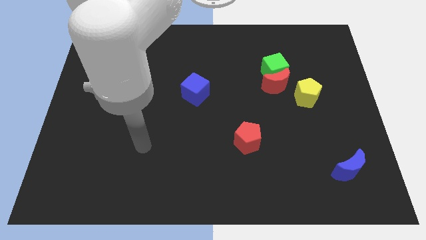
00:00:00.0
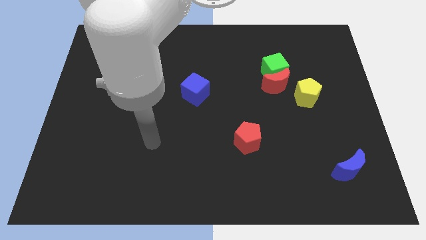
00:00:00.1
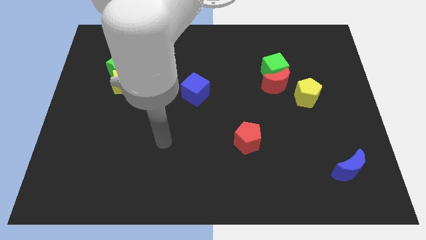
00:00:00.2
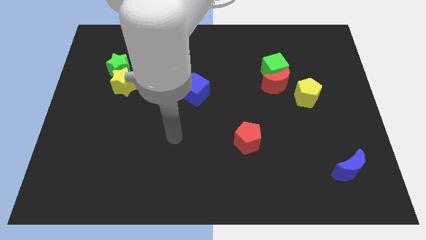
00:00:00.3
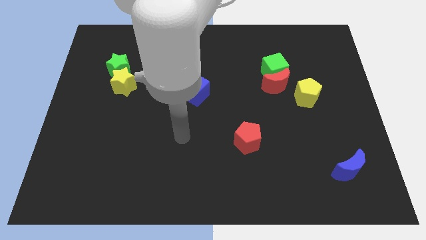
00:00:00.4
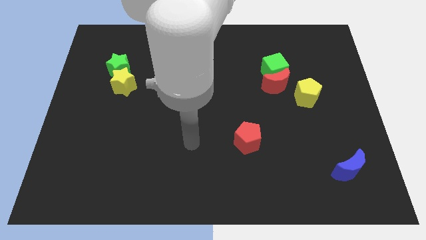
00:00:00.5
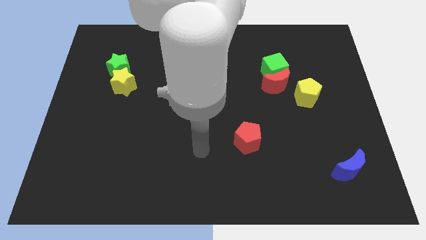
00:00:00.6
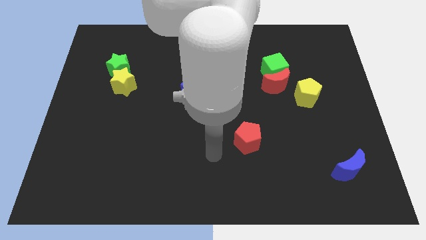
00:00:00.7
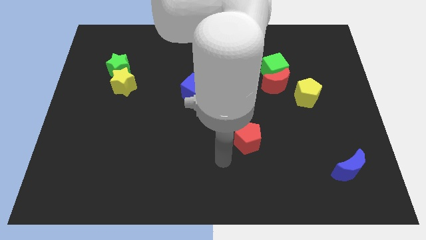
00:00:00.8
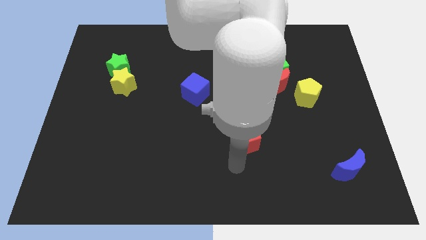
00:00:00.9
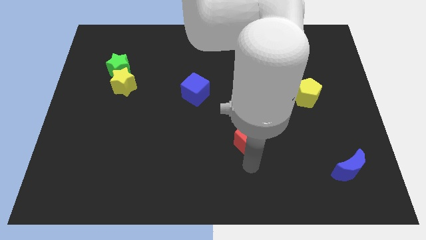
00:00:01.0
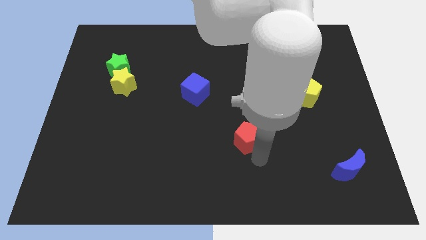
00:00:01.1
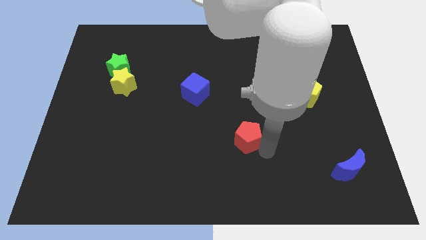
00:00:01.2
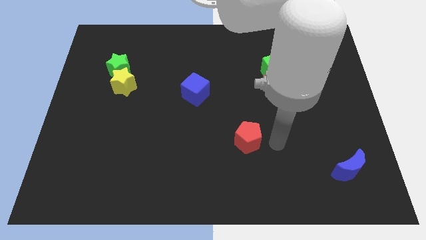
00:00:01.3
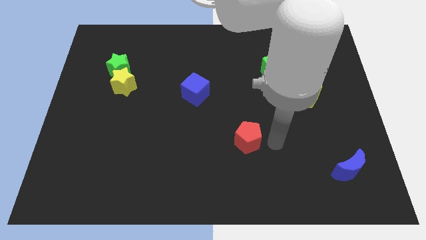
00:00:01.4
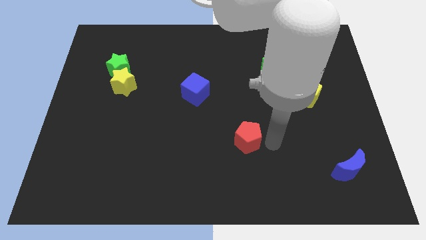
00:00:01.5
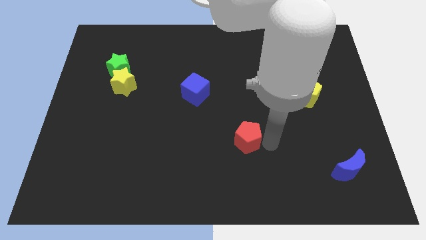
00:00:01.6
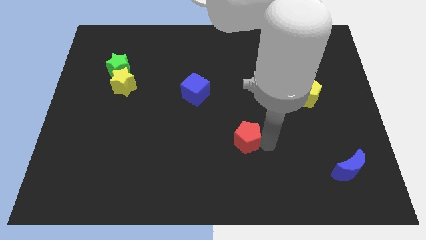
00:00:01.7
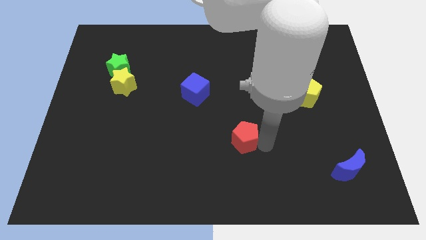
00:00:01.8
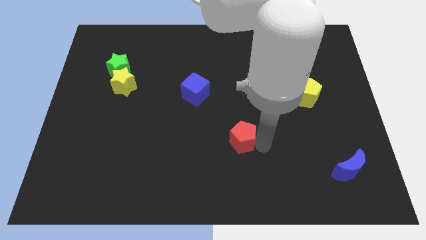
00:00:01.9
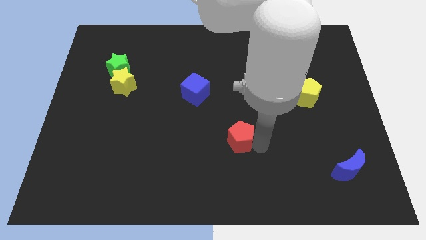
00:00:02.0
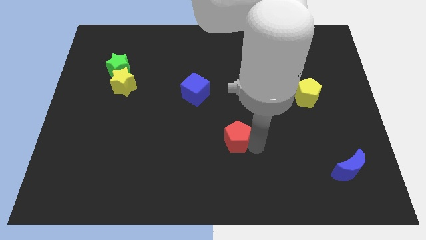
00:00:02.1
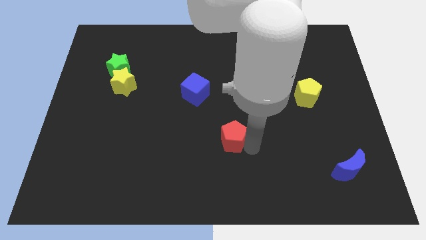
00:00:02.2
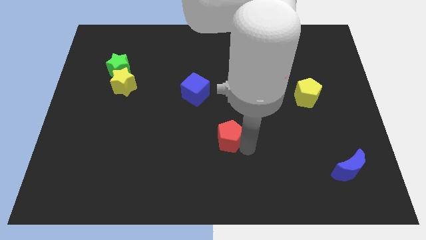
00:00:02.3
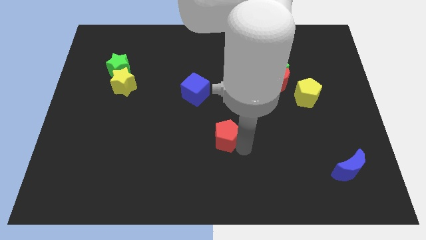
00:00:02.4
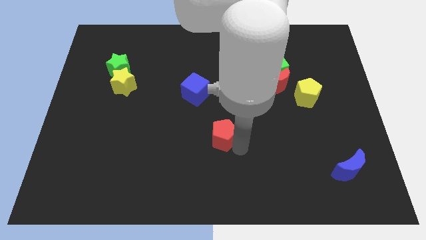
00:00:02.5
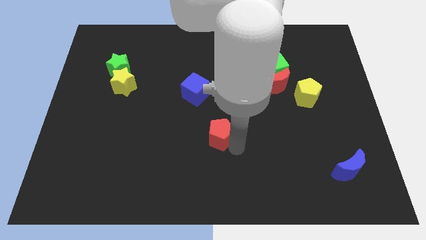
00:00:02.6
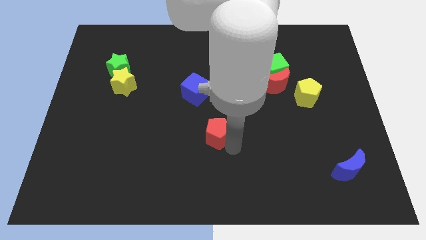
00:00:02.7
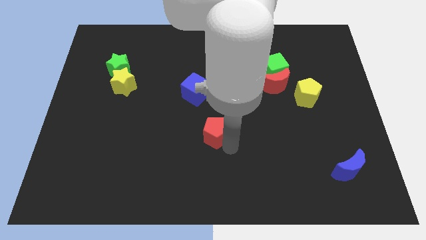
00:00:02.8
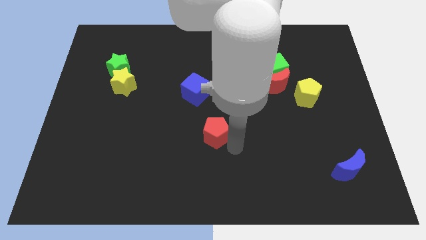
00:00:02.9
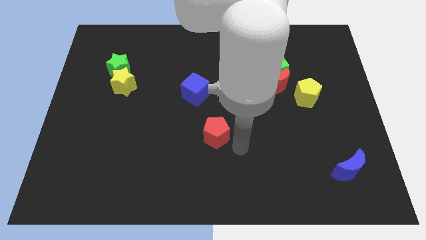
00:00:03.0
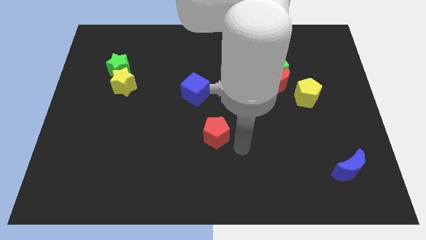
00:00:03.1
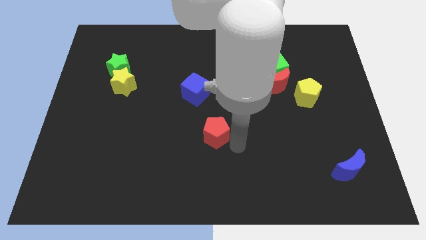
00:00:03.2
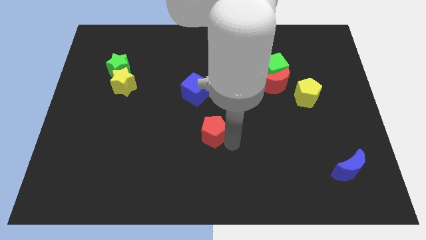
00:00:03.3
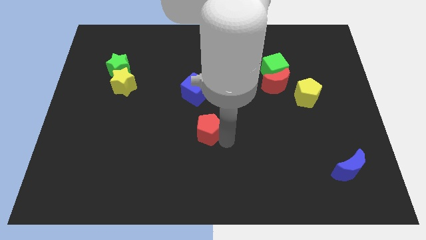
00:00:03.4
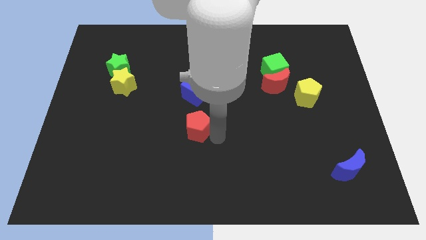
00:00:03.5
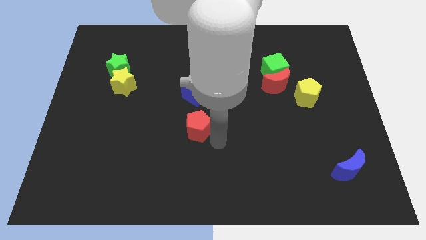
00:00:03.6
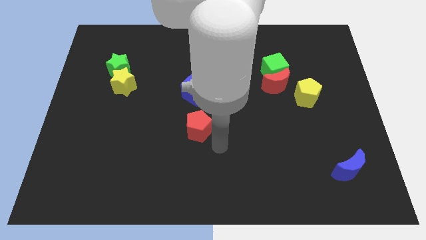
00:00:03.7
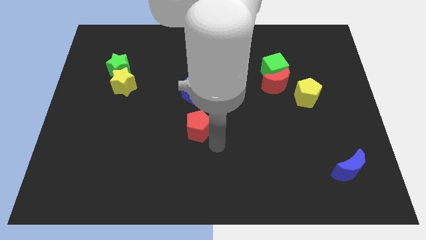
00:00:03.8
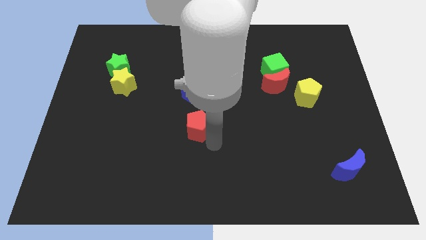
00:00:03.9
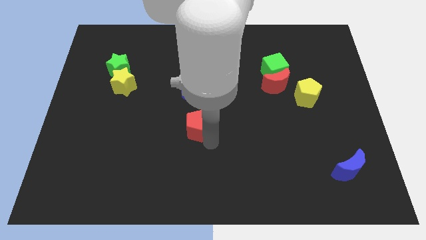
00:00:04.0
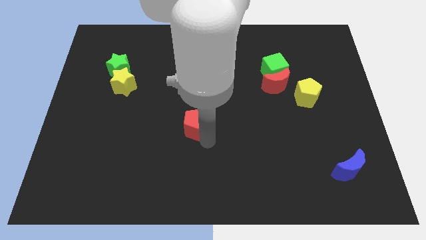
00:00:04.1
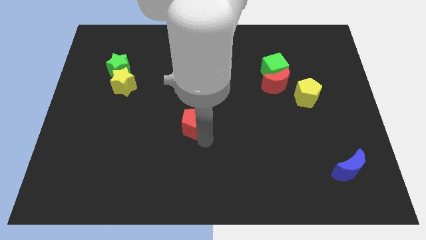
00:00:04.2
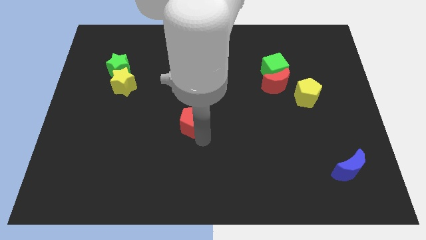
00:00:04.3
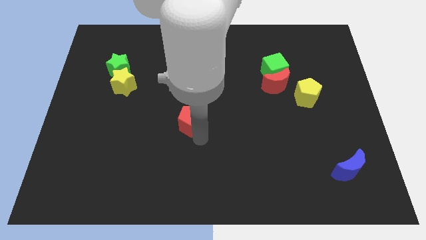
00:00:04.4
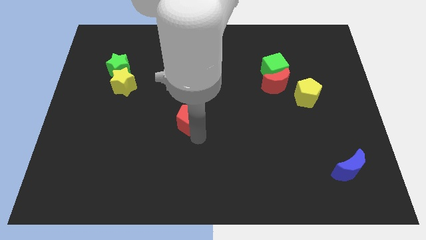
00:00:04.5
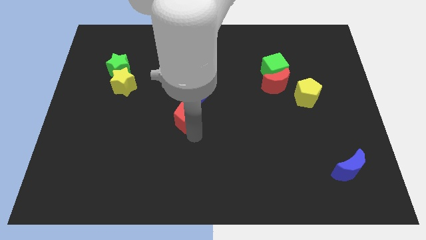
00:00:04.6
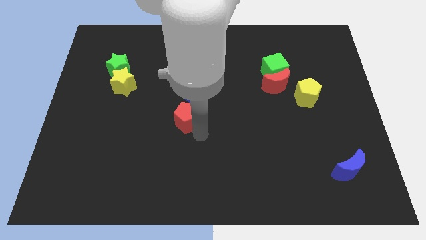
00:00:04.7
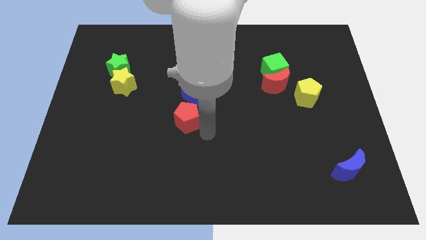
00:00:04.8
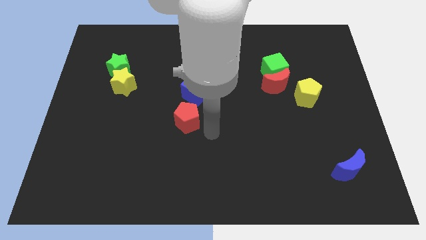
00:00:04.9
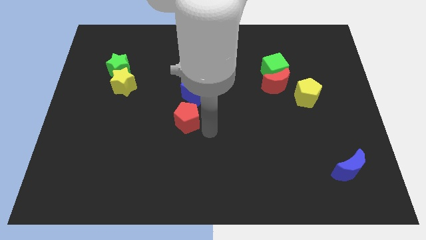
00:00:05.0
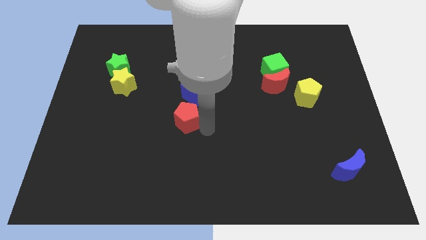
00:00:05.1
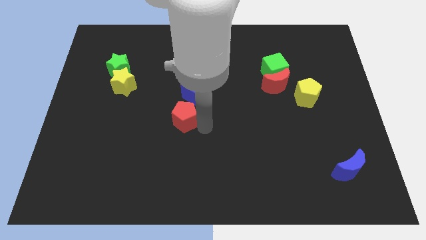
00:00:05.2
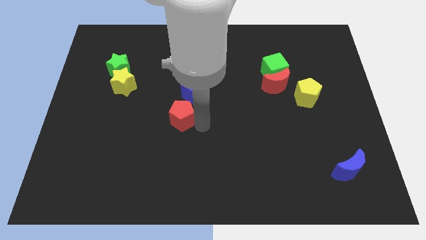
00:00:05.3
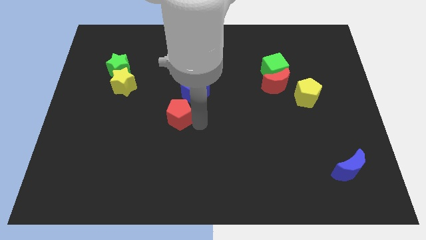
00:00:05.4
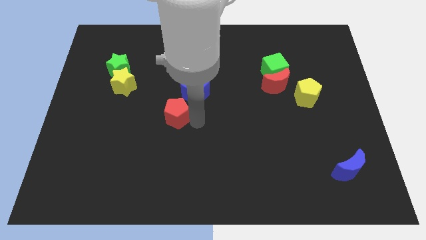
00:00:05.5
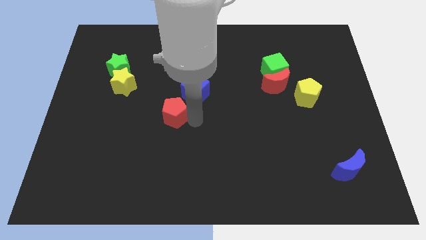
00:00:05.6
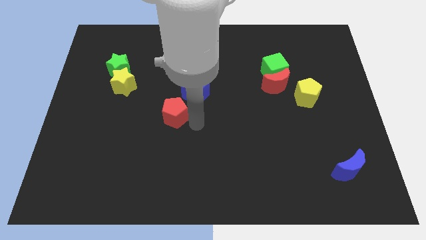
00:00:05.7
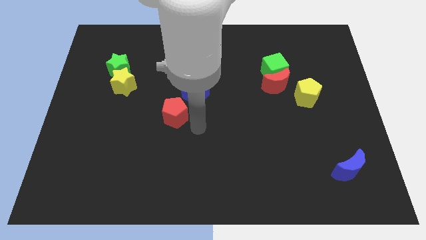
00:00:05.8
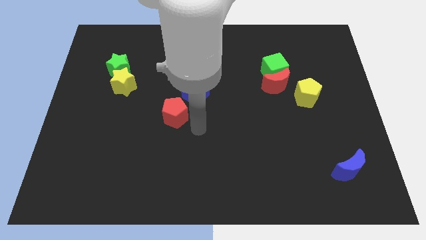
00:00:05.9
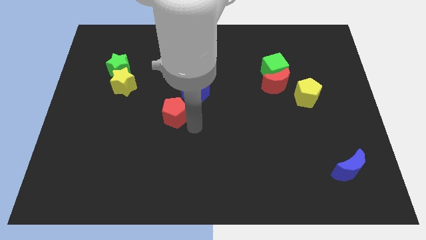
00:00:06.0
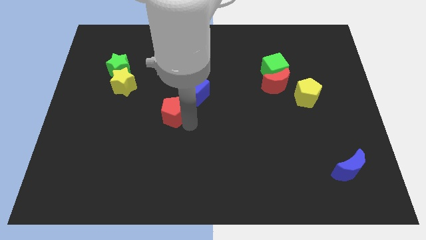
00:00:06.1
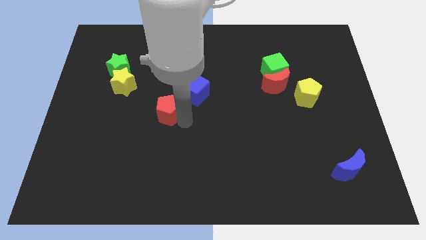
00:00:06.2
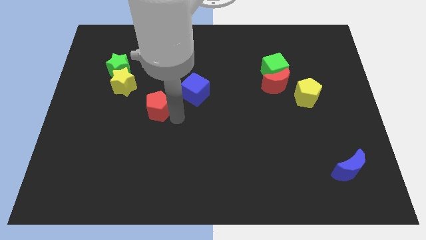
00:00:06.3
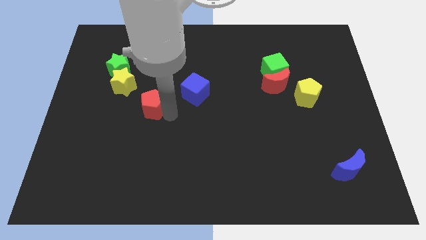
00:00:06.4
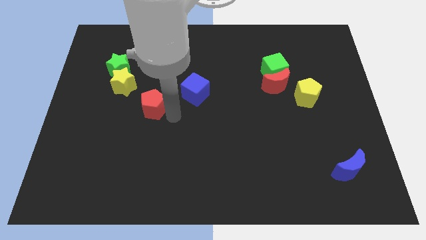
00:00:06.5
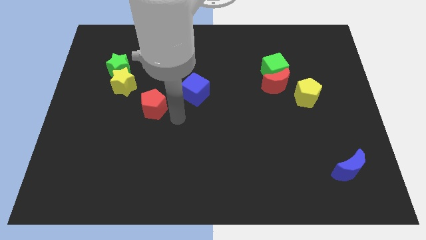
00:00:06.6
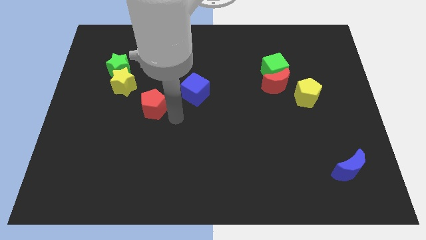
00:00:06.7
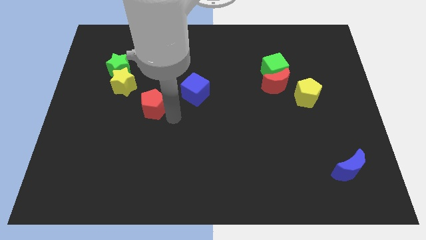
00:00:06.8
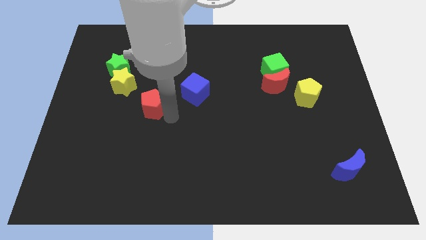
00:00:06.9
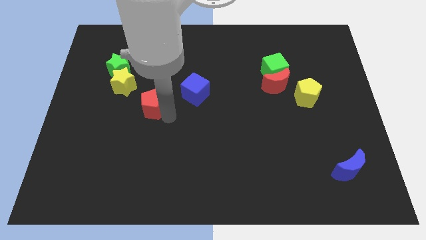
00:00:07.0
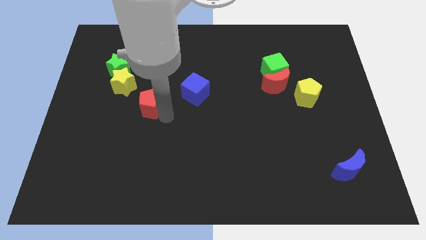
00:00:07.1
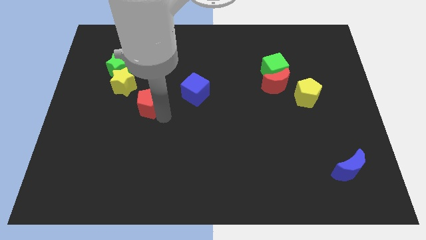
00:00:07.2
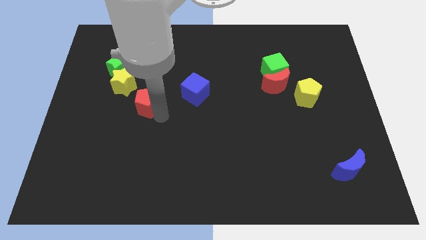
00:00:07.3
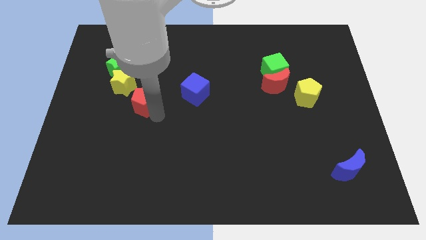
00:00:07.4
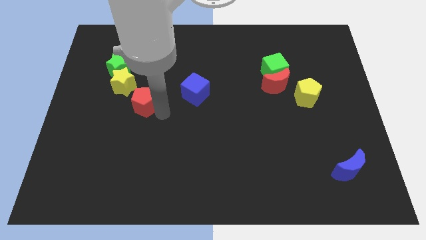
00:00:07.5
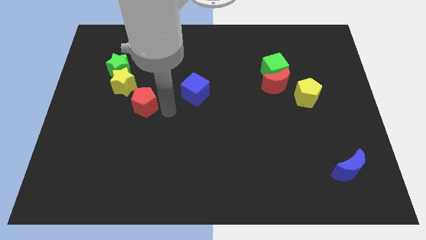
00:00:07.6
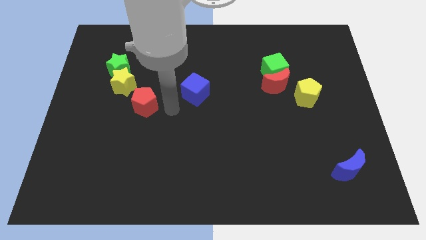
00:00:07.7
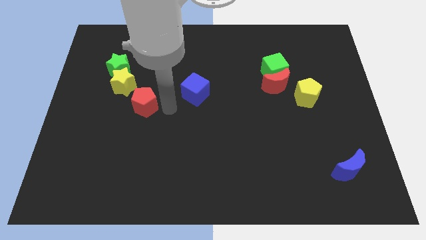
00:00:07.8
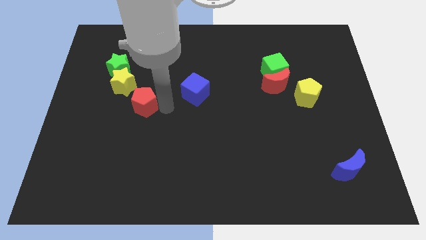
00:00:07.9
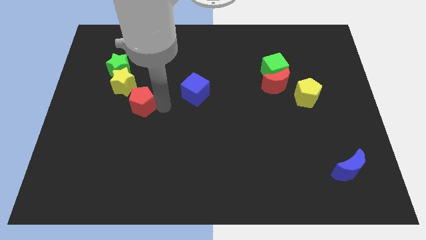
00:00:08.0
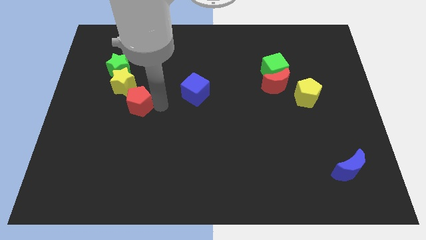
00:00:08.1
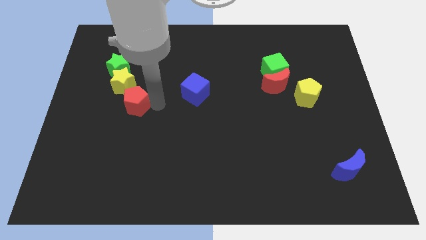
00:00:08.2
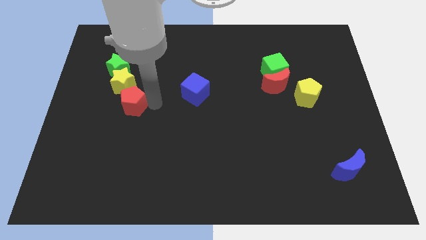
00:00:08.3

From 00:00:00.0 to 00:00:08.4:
put the red pentagon to the bottom of the green star
